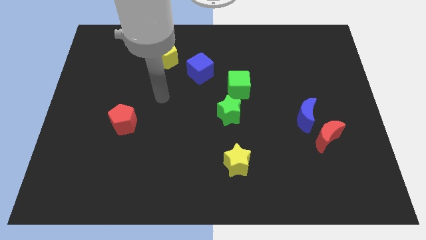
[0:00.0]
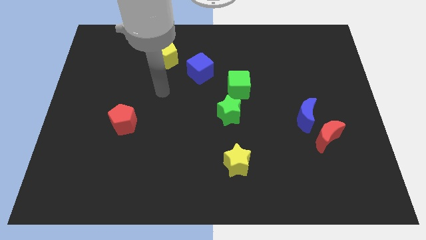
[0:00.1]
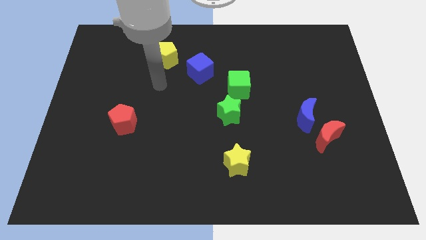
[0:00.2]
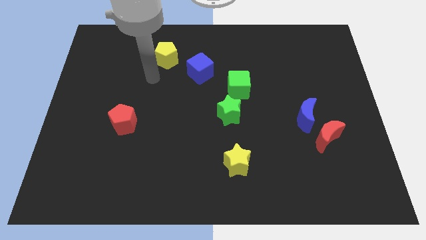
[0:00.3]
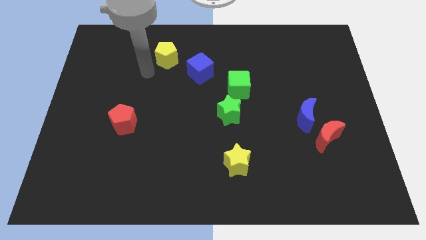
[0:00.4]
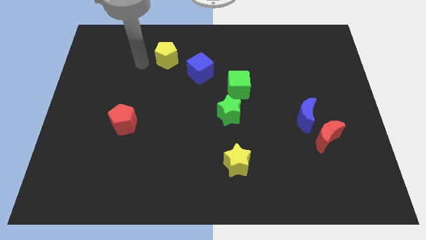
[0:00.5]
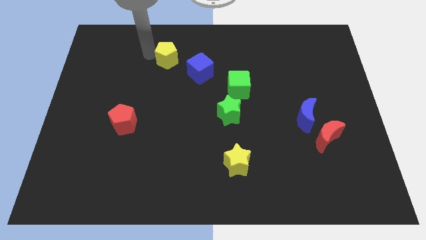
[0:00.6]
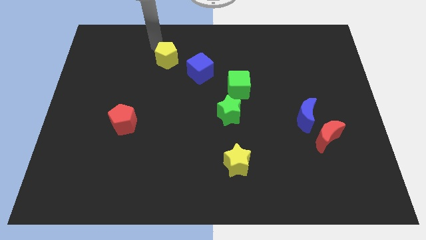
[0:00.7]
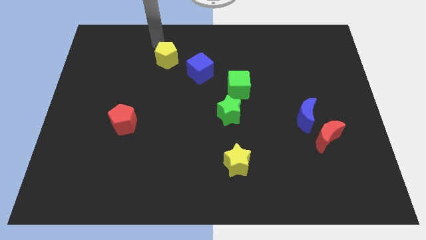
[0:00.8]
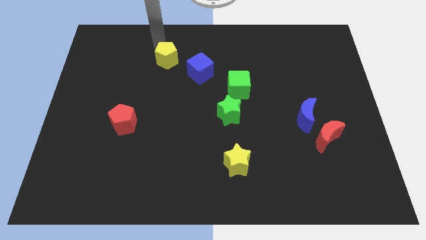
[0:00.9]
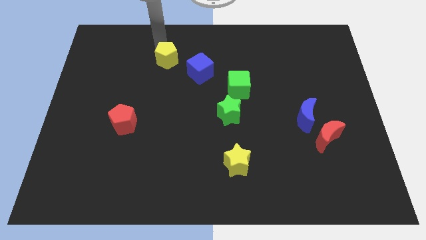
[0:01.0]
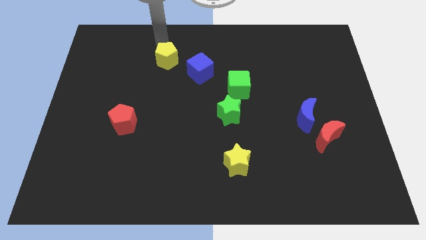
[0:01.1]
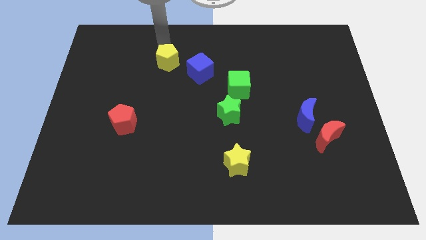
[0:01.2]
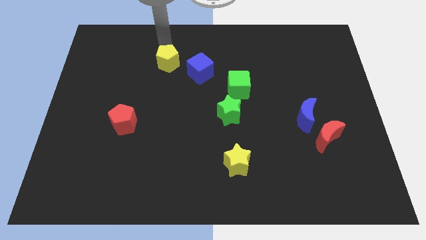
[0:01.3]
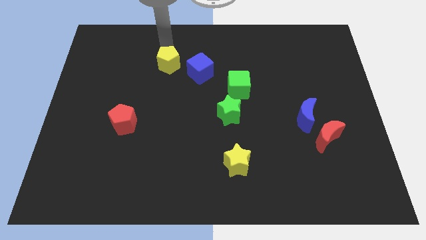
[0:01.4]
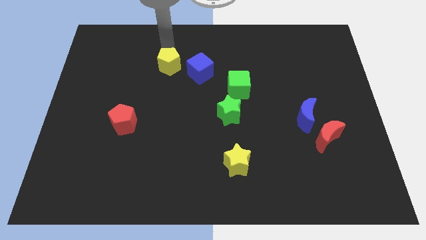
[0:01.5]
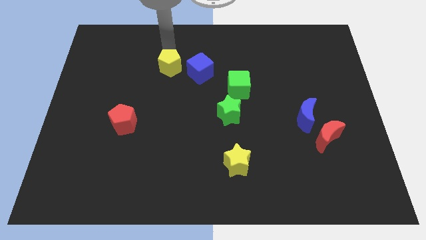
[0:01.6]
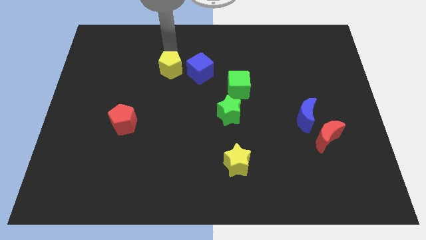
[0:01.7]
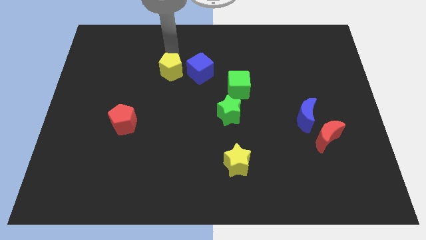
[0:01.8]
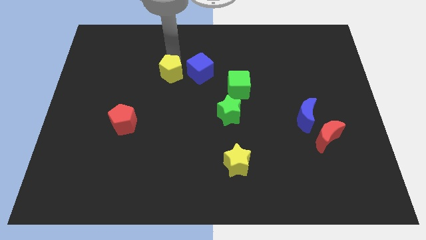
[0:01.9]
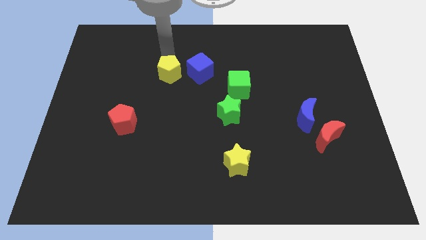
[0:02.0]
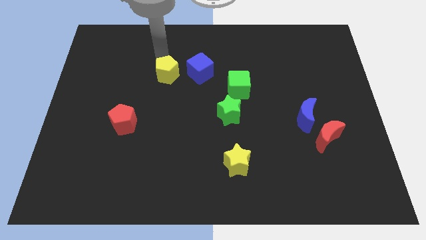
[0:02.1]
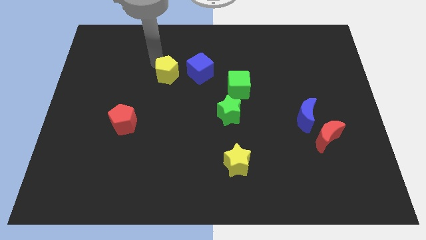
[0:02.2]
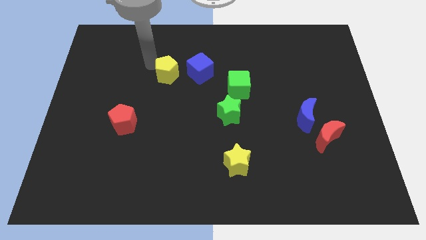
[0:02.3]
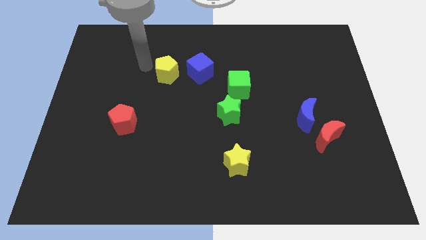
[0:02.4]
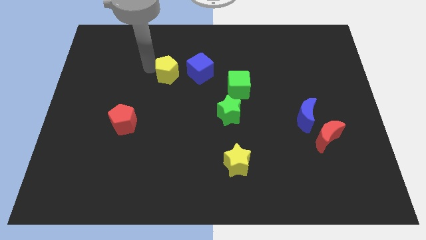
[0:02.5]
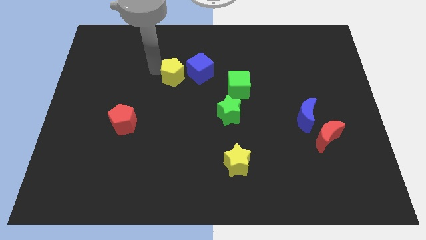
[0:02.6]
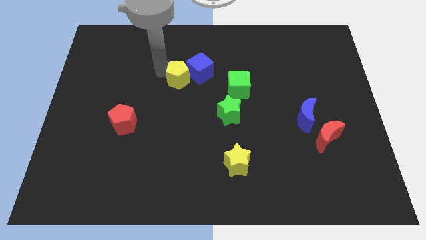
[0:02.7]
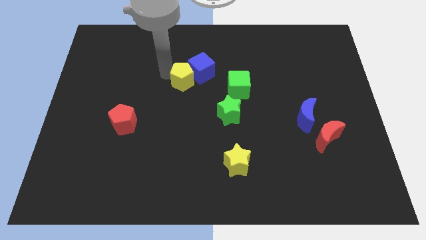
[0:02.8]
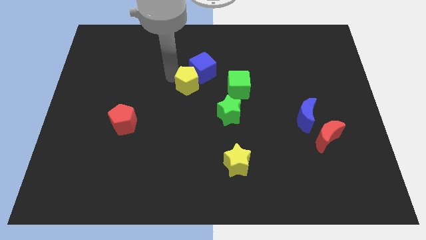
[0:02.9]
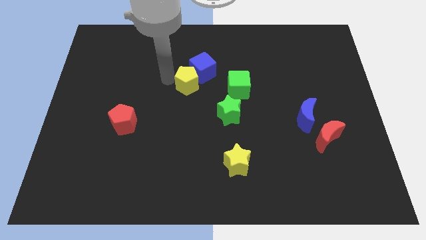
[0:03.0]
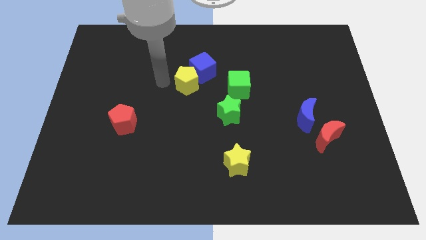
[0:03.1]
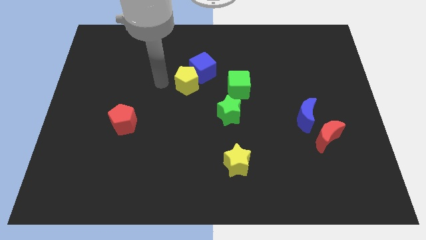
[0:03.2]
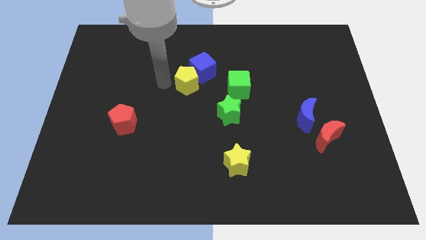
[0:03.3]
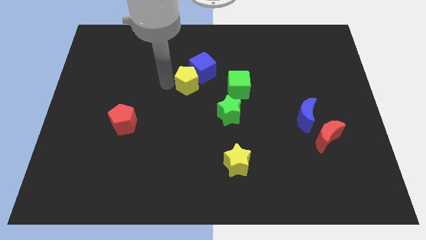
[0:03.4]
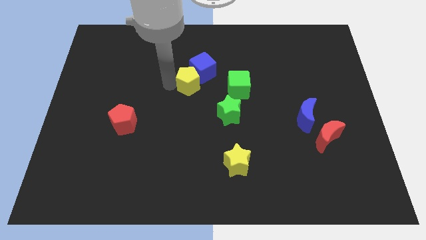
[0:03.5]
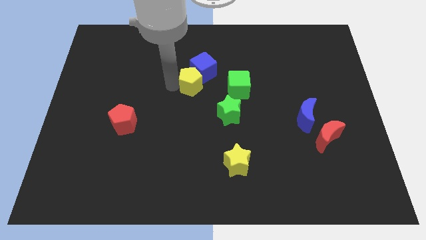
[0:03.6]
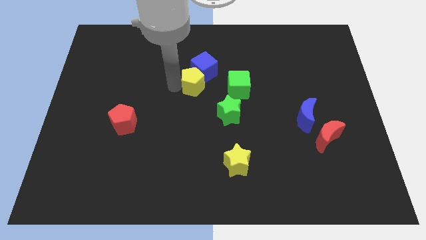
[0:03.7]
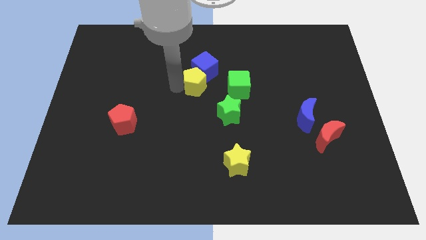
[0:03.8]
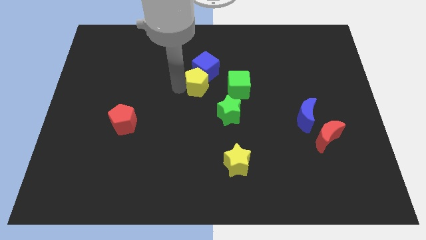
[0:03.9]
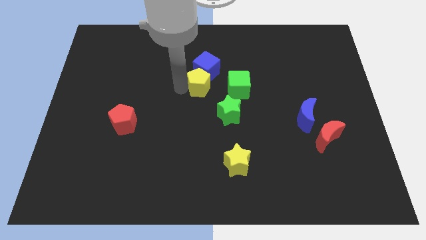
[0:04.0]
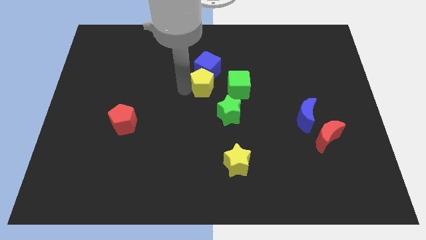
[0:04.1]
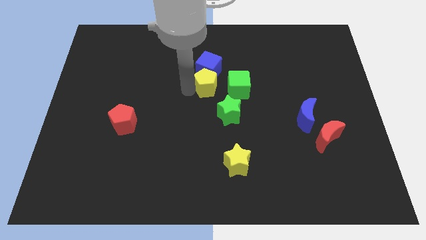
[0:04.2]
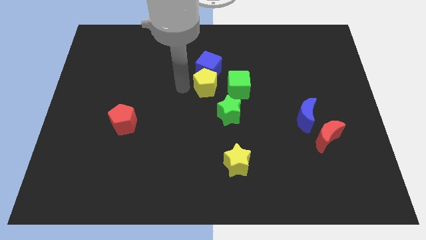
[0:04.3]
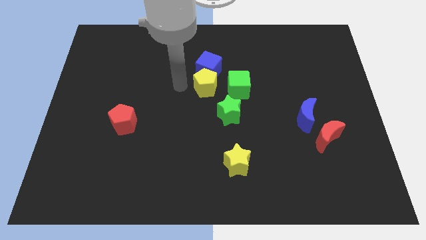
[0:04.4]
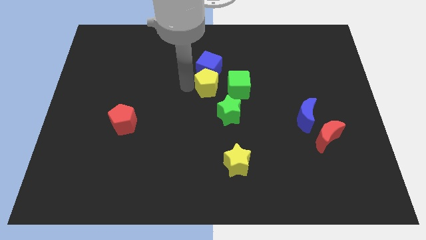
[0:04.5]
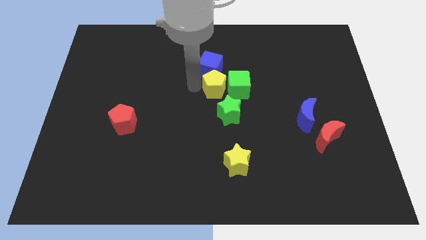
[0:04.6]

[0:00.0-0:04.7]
move the yellow pentagon towards the green cube

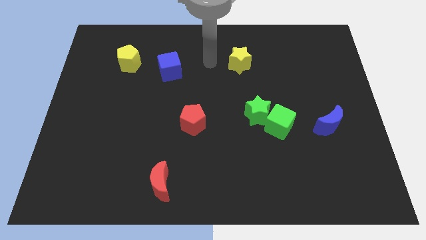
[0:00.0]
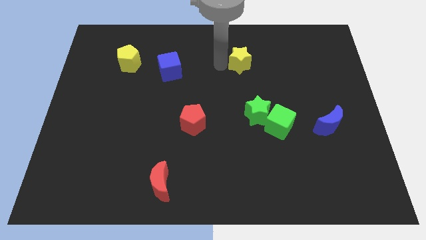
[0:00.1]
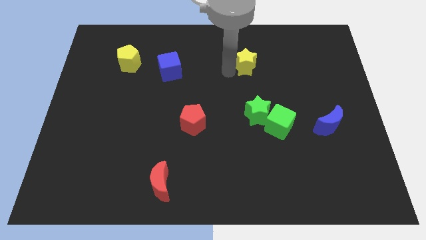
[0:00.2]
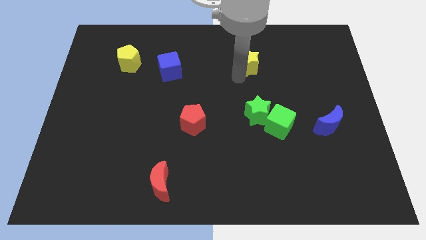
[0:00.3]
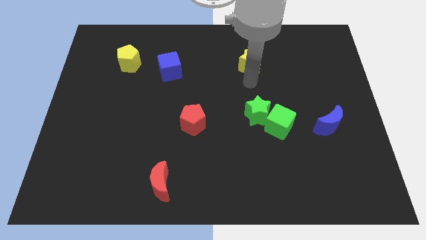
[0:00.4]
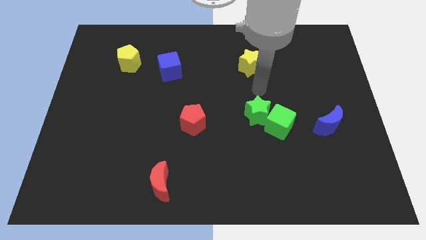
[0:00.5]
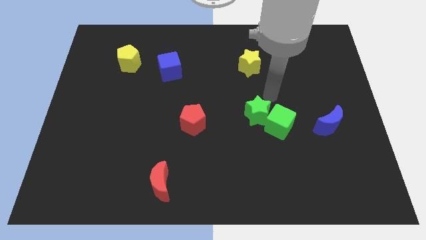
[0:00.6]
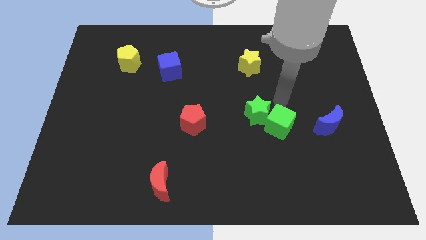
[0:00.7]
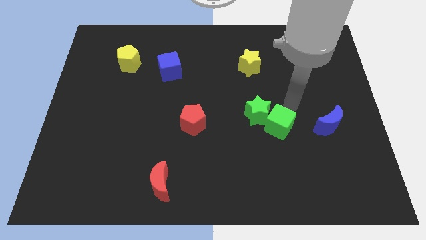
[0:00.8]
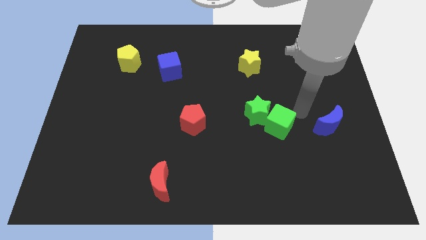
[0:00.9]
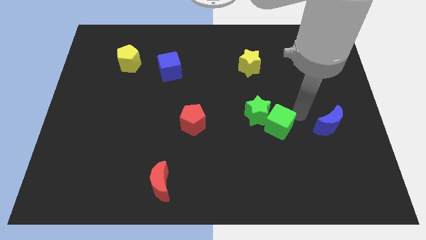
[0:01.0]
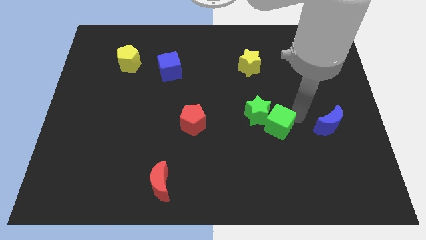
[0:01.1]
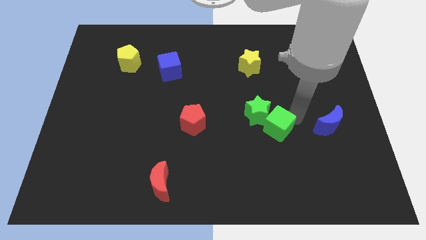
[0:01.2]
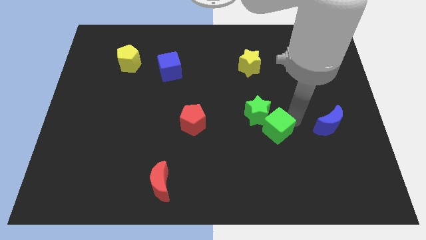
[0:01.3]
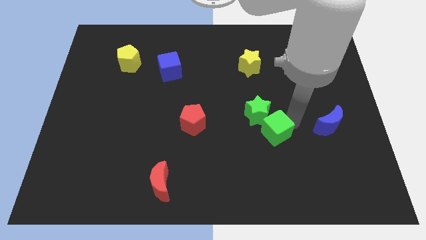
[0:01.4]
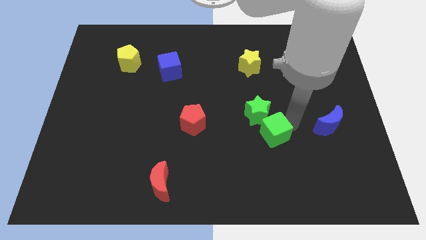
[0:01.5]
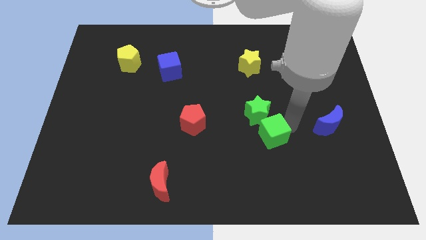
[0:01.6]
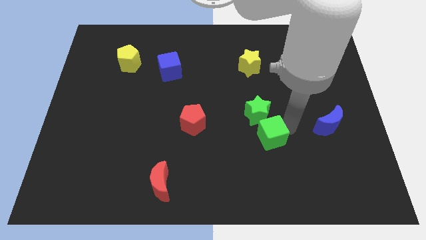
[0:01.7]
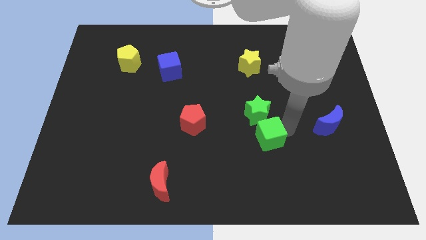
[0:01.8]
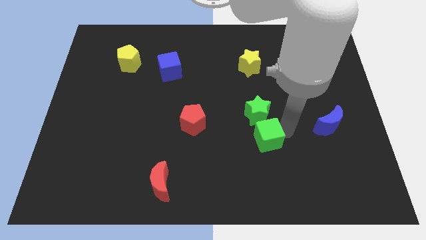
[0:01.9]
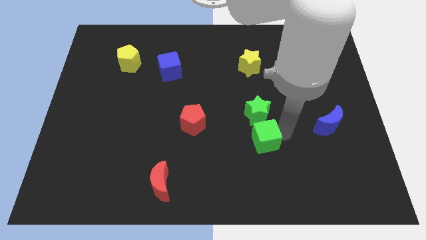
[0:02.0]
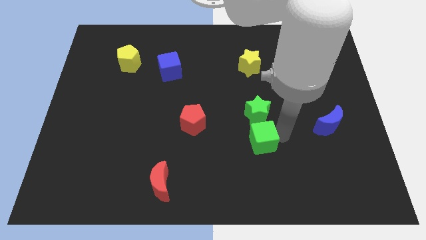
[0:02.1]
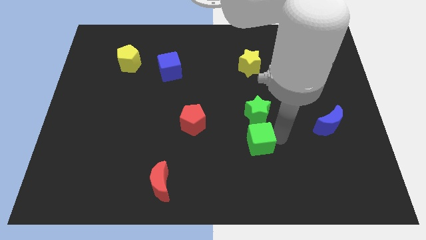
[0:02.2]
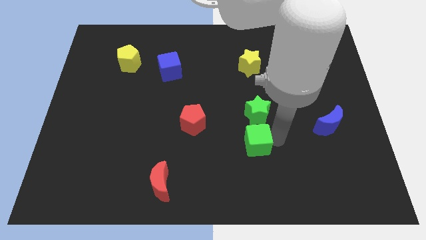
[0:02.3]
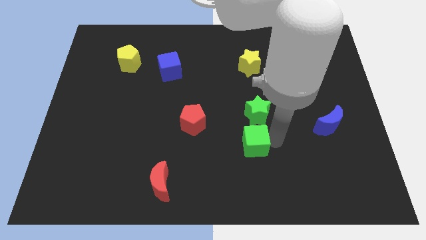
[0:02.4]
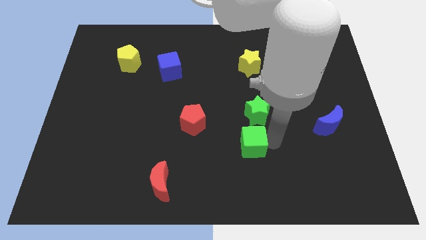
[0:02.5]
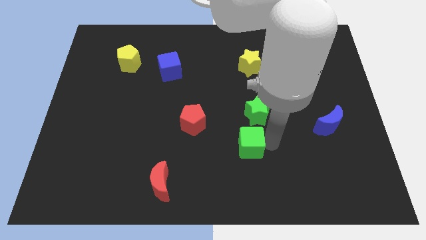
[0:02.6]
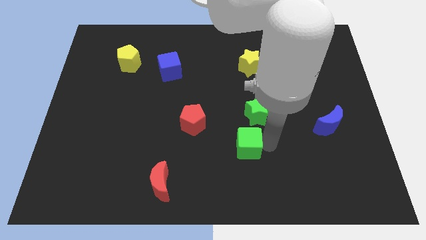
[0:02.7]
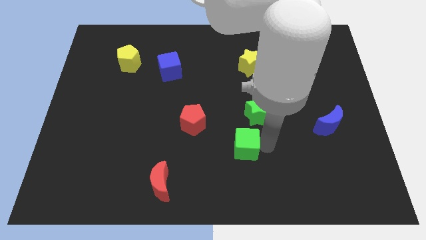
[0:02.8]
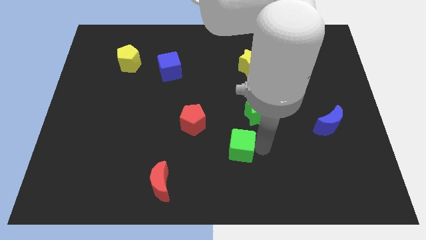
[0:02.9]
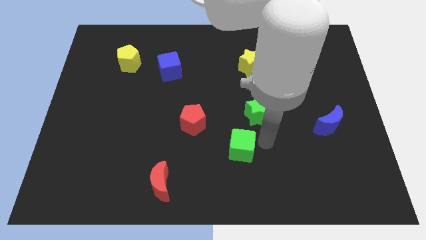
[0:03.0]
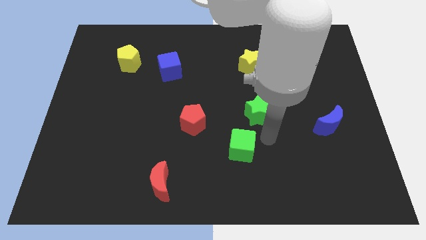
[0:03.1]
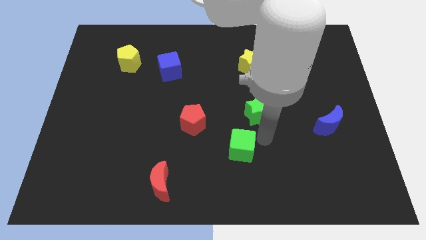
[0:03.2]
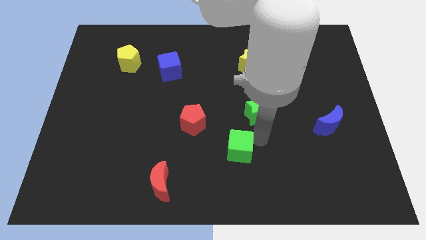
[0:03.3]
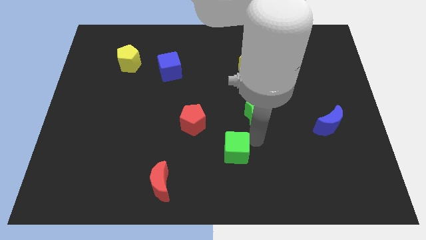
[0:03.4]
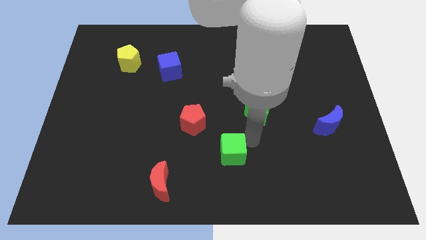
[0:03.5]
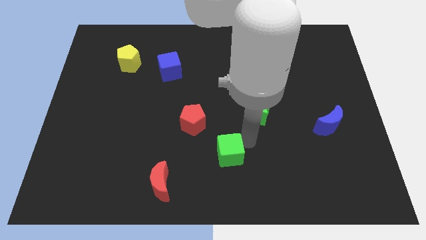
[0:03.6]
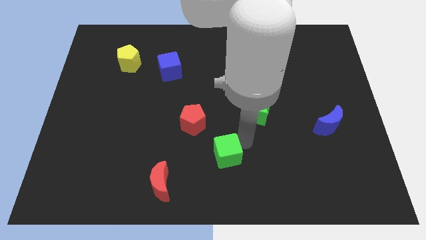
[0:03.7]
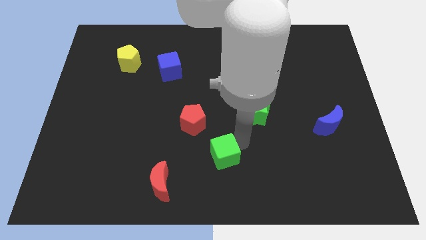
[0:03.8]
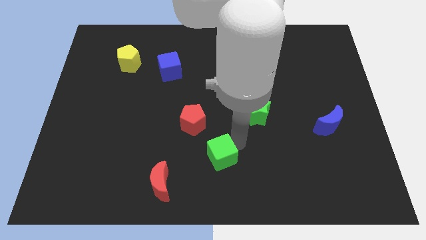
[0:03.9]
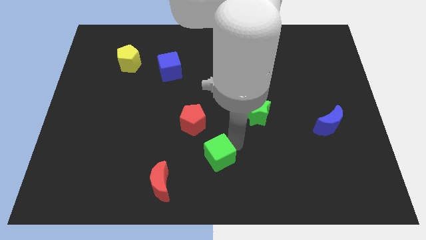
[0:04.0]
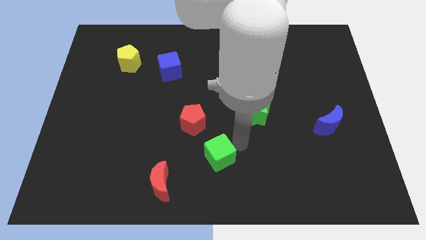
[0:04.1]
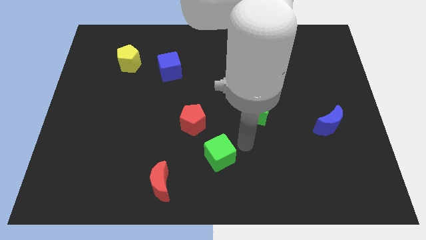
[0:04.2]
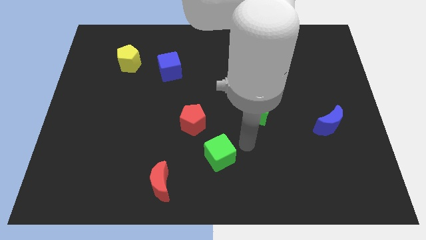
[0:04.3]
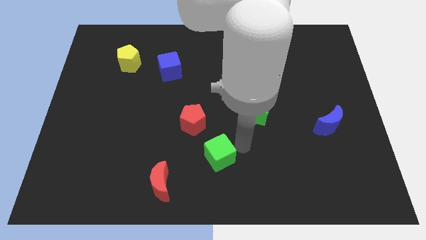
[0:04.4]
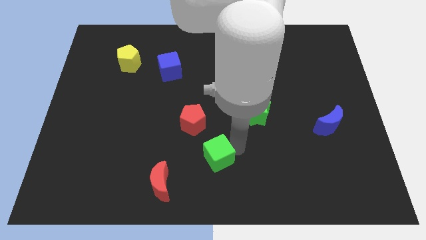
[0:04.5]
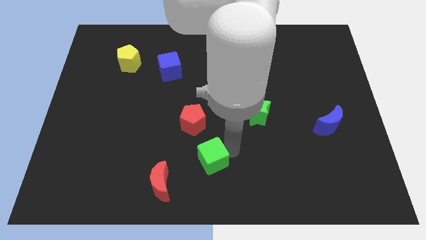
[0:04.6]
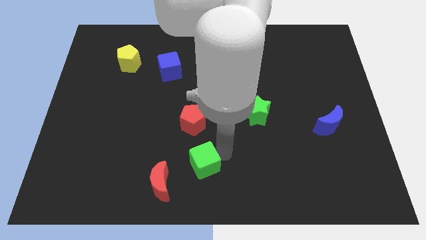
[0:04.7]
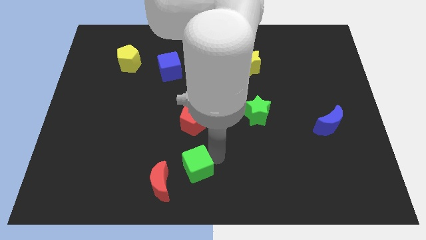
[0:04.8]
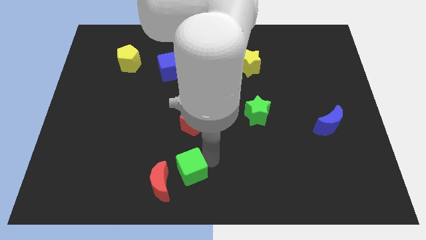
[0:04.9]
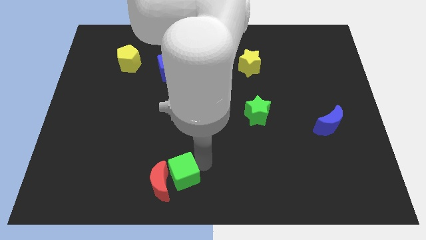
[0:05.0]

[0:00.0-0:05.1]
push the green cube to the red moon
